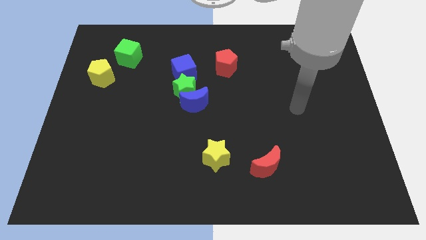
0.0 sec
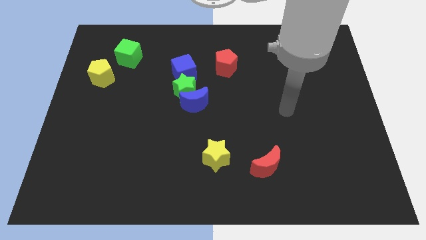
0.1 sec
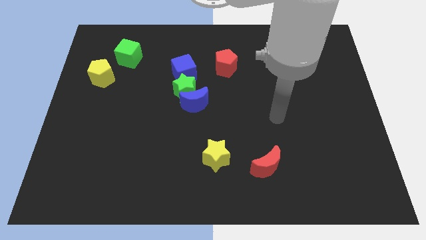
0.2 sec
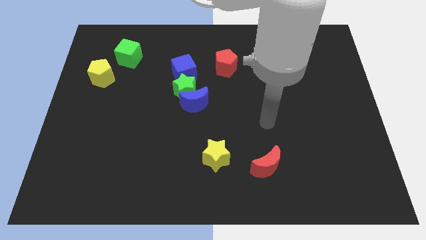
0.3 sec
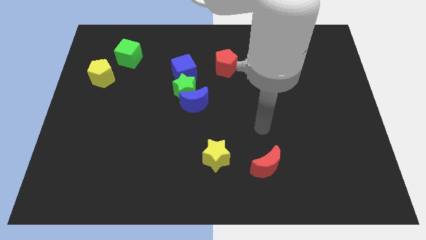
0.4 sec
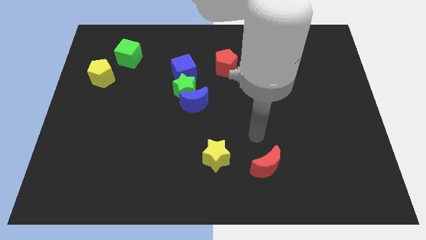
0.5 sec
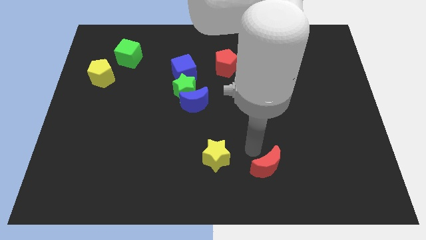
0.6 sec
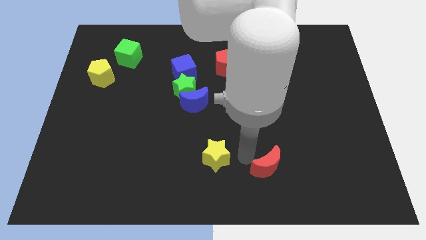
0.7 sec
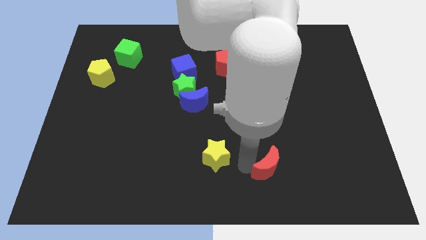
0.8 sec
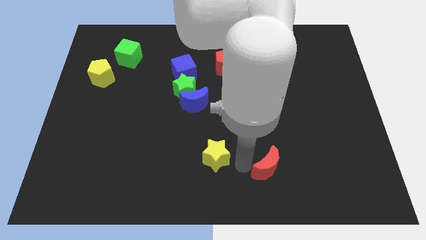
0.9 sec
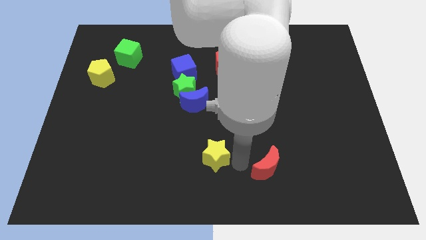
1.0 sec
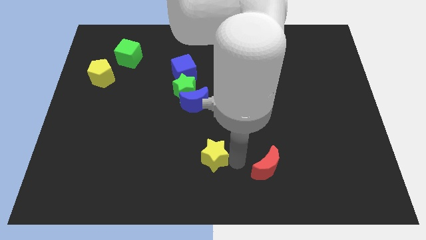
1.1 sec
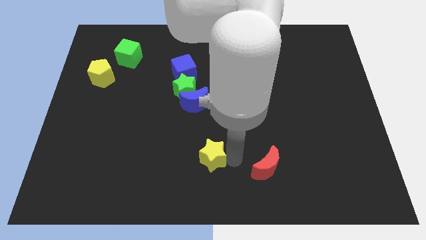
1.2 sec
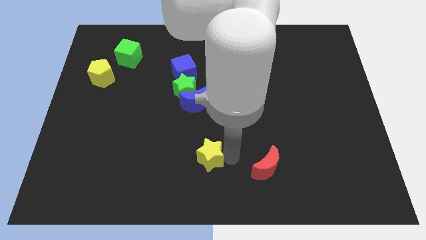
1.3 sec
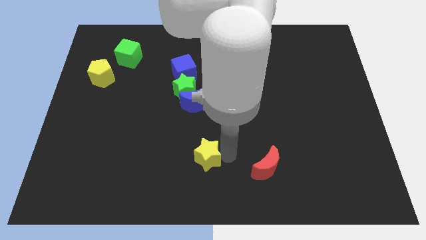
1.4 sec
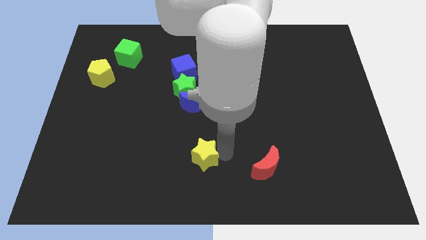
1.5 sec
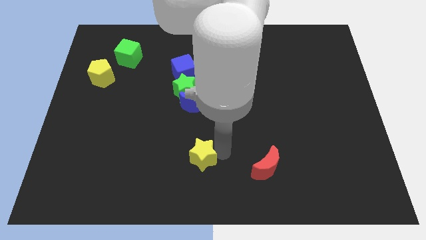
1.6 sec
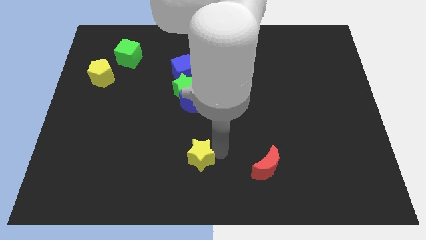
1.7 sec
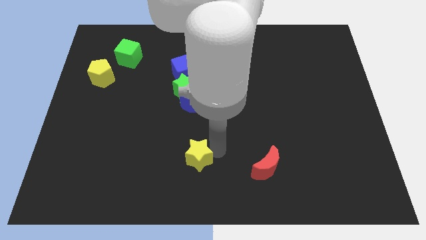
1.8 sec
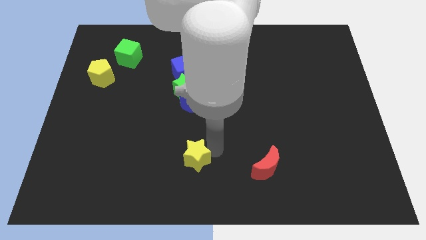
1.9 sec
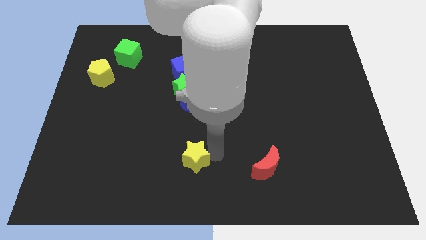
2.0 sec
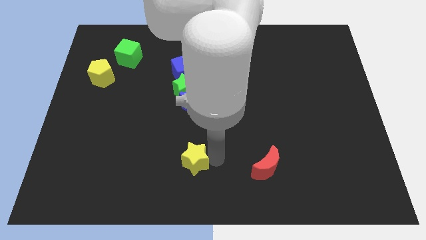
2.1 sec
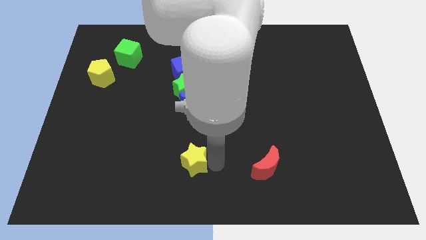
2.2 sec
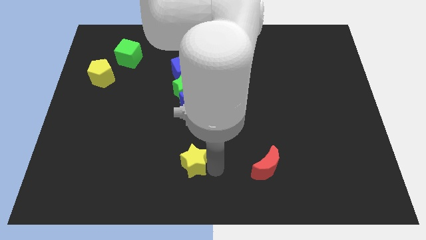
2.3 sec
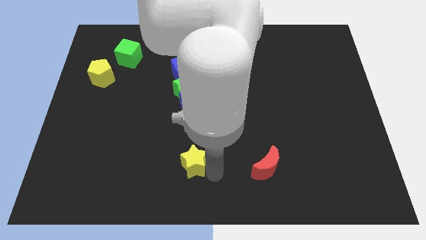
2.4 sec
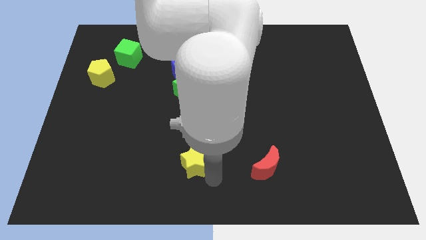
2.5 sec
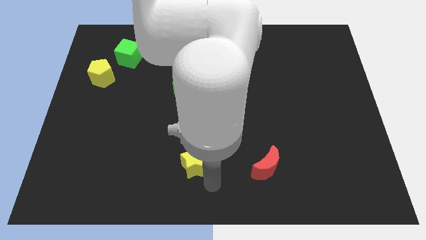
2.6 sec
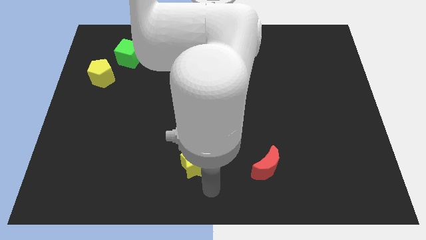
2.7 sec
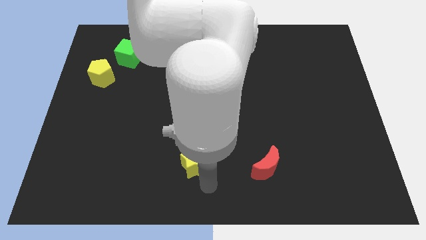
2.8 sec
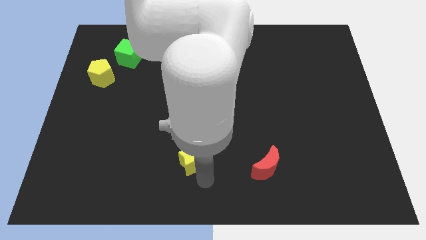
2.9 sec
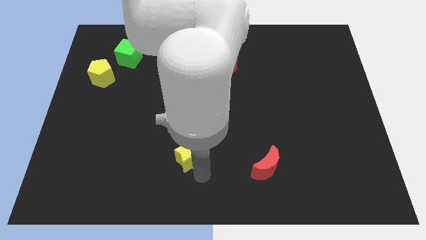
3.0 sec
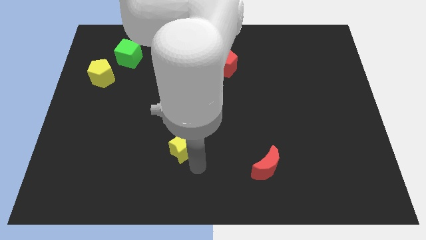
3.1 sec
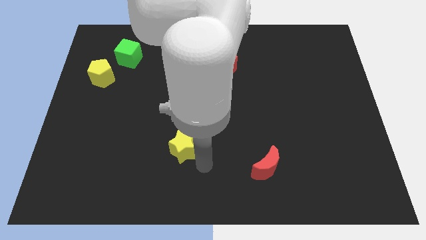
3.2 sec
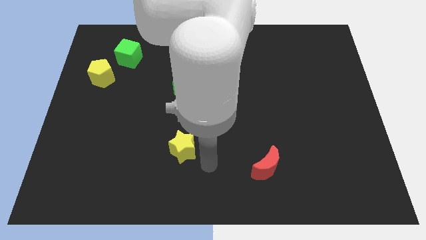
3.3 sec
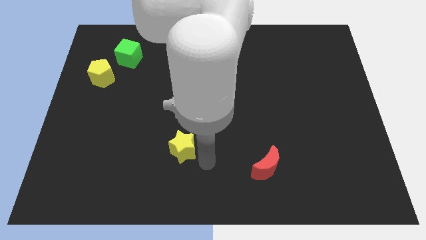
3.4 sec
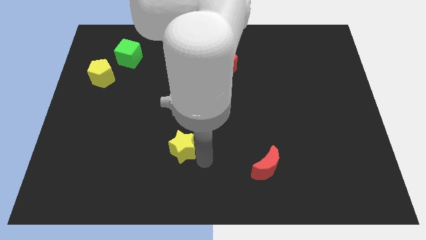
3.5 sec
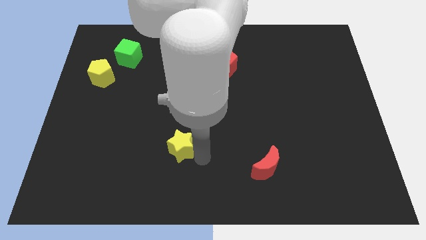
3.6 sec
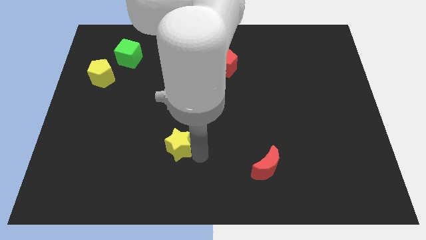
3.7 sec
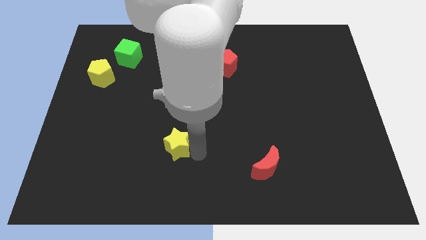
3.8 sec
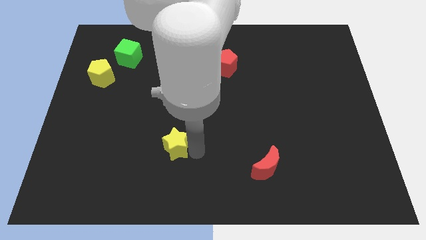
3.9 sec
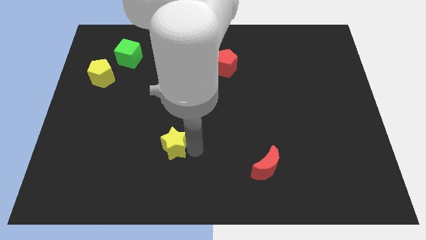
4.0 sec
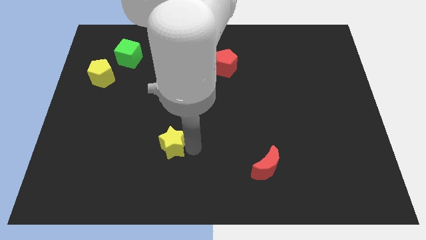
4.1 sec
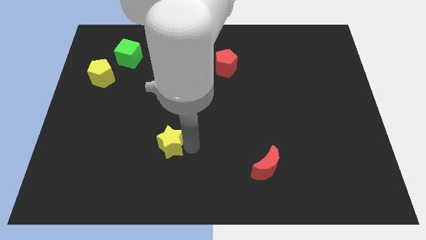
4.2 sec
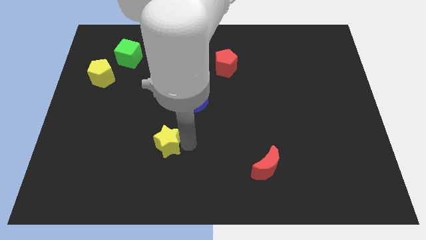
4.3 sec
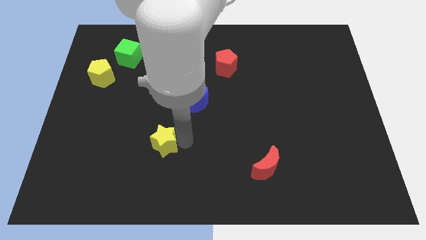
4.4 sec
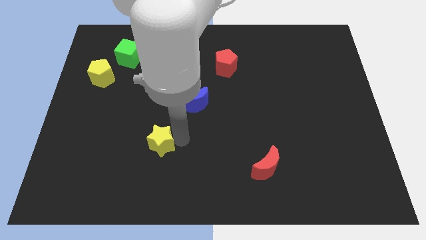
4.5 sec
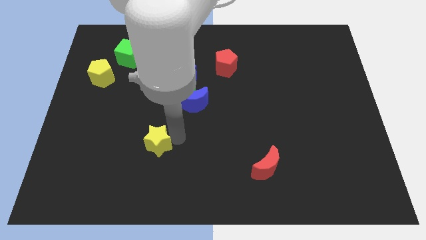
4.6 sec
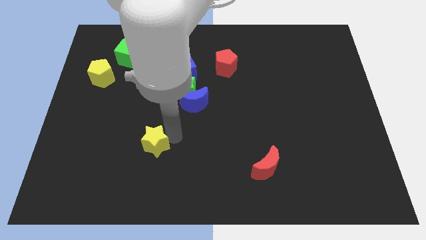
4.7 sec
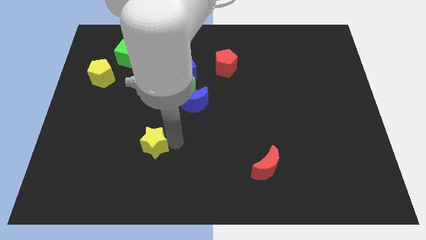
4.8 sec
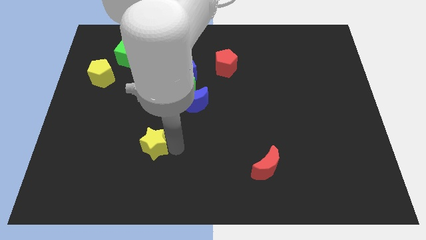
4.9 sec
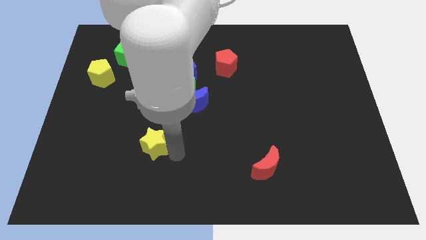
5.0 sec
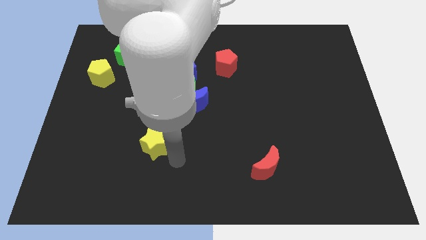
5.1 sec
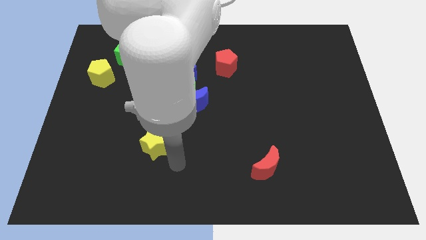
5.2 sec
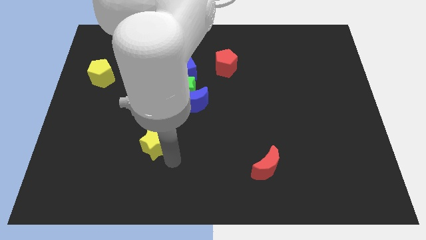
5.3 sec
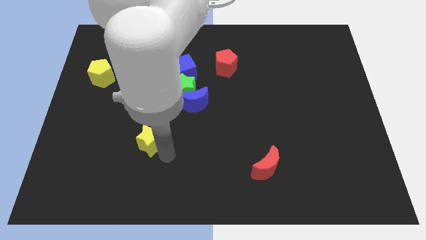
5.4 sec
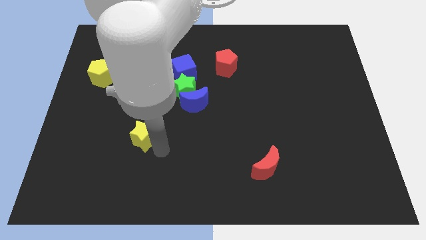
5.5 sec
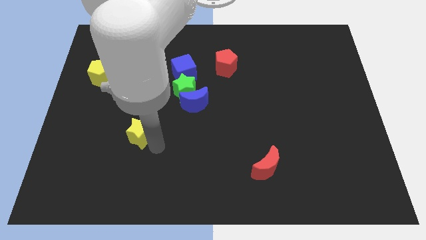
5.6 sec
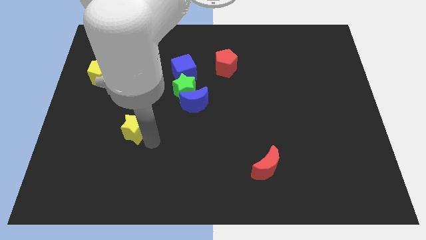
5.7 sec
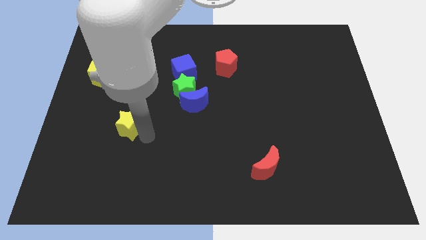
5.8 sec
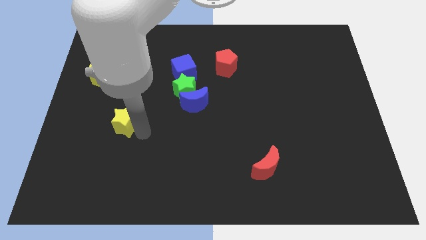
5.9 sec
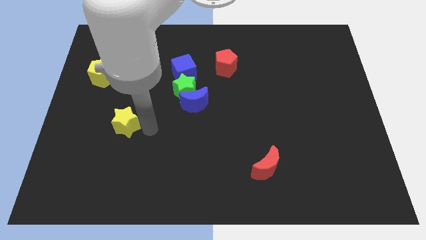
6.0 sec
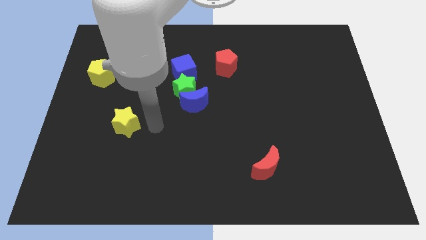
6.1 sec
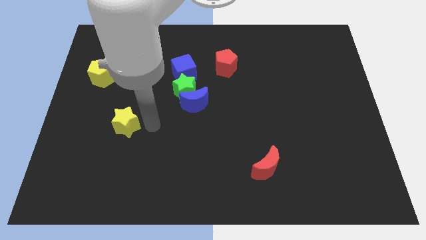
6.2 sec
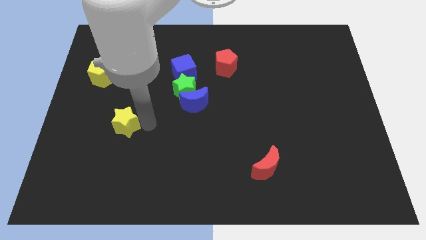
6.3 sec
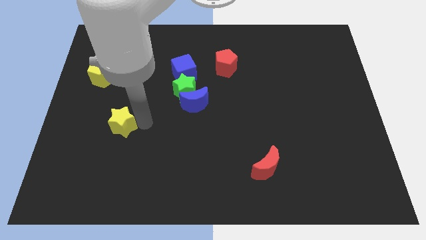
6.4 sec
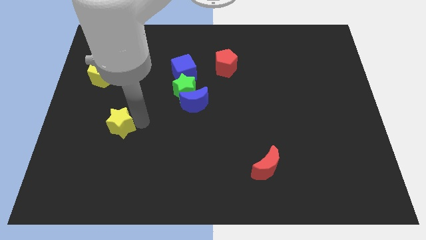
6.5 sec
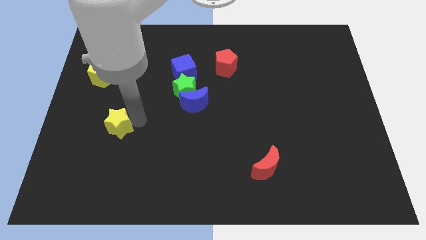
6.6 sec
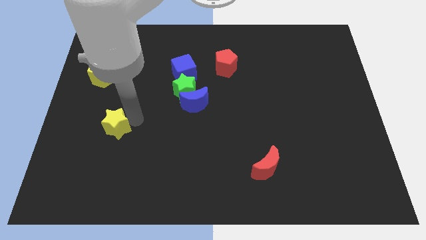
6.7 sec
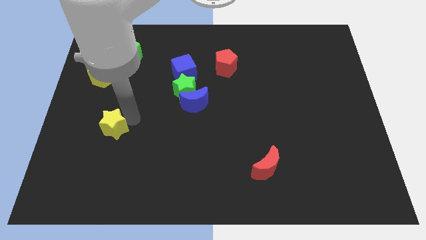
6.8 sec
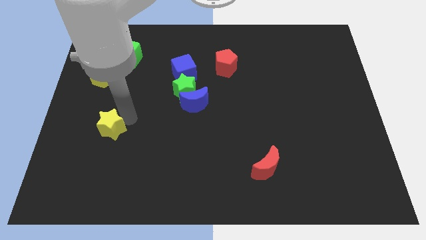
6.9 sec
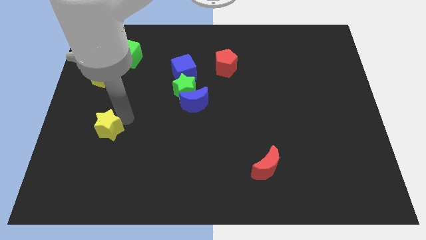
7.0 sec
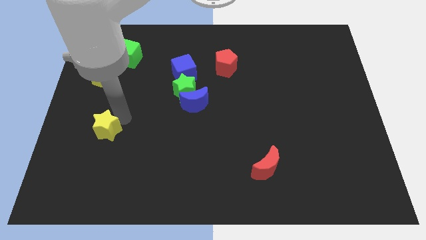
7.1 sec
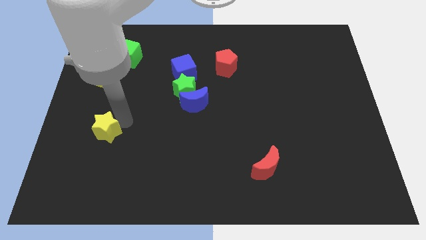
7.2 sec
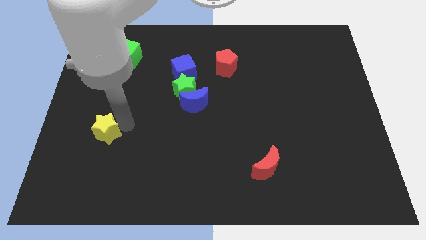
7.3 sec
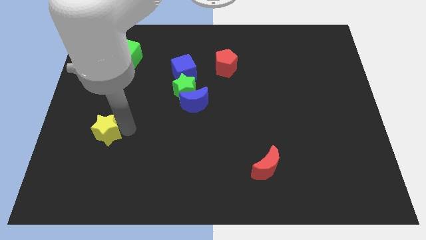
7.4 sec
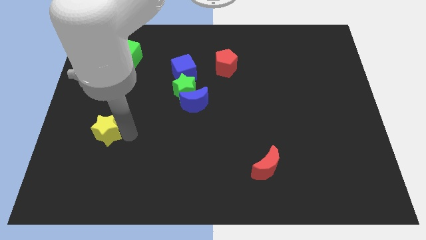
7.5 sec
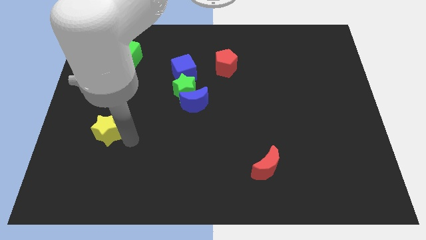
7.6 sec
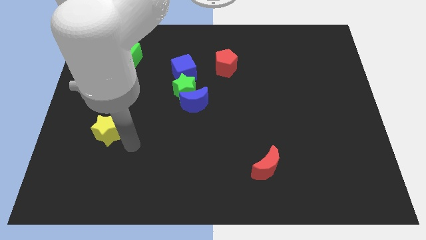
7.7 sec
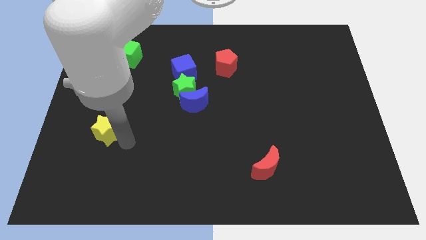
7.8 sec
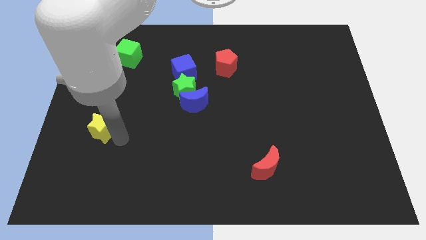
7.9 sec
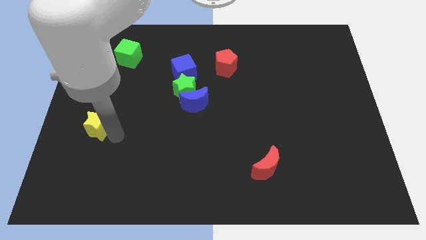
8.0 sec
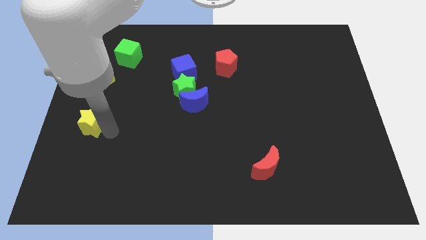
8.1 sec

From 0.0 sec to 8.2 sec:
slide the yellow star to the left side
